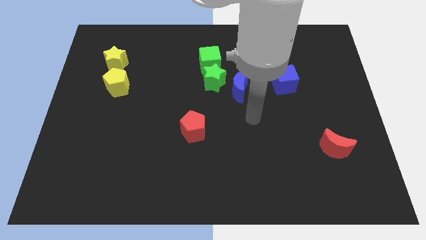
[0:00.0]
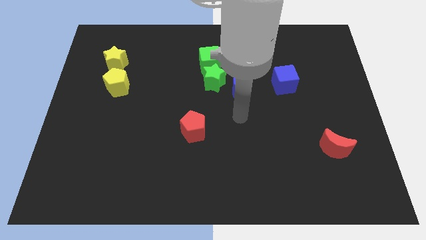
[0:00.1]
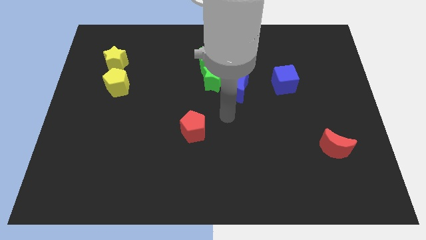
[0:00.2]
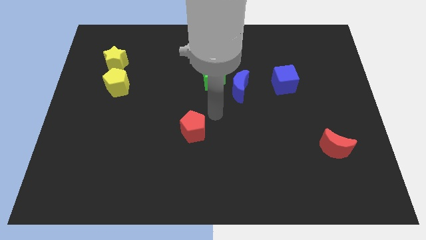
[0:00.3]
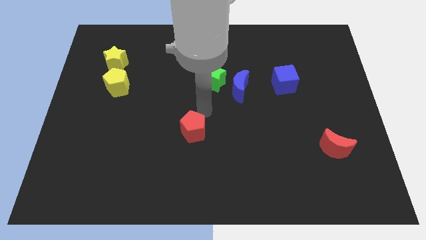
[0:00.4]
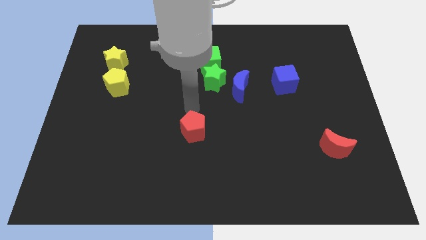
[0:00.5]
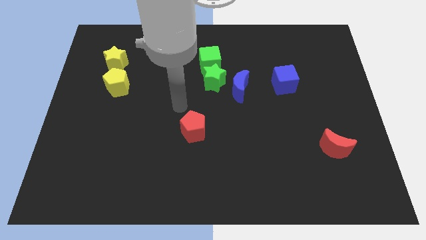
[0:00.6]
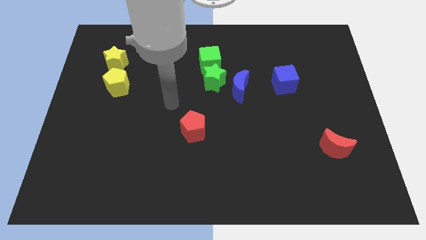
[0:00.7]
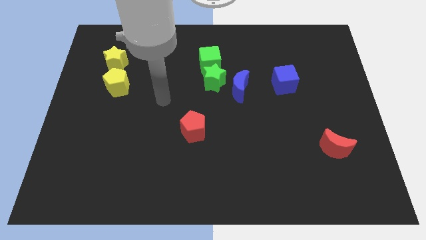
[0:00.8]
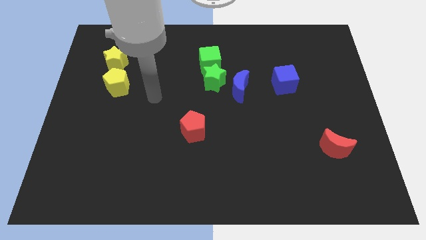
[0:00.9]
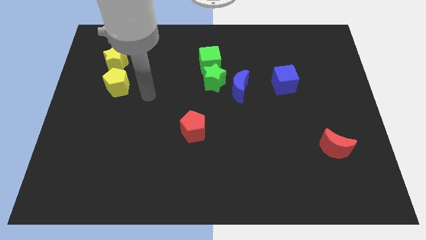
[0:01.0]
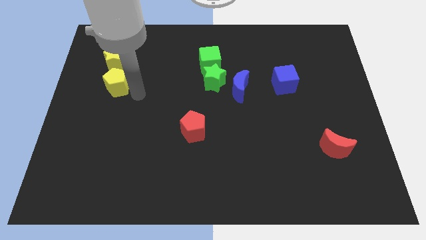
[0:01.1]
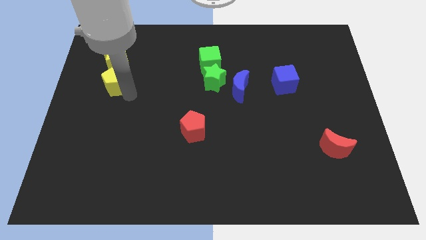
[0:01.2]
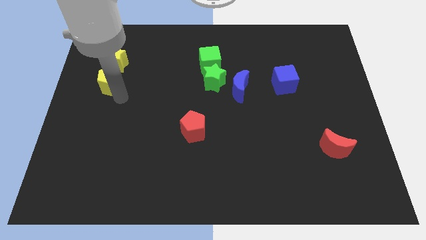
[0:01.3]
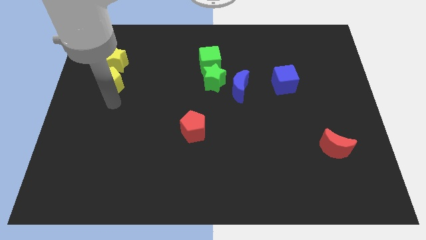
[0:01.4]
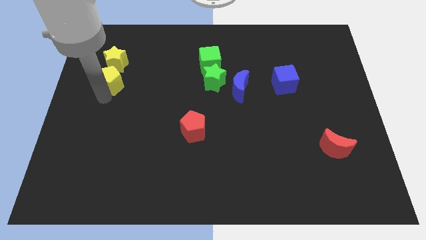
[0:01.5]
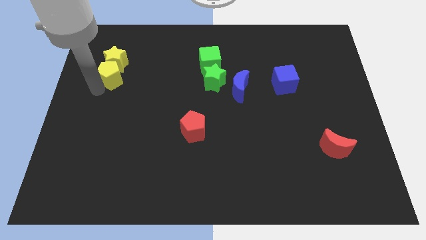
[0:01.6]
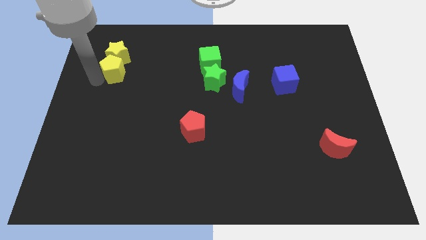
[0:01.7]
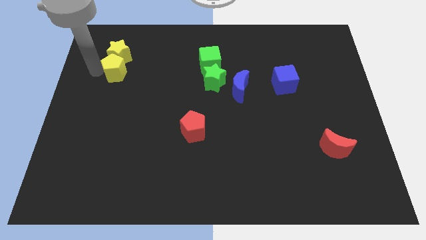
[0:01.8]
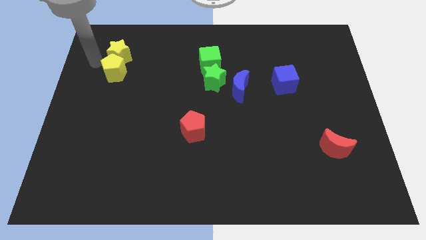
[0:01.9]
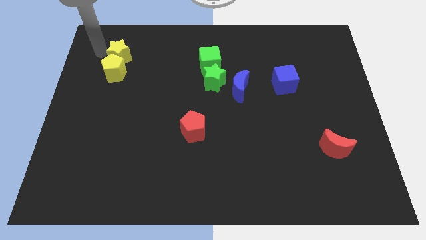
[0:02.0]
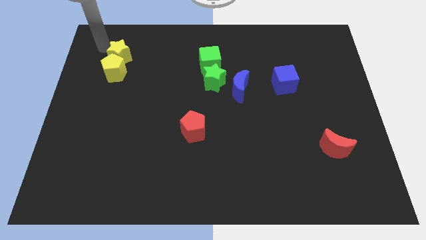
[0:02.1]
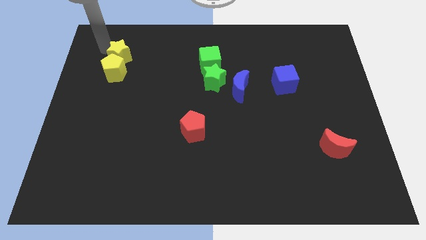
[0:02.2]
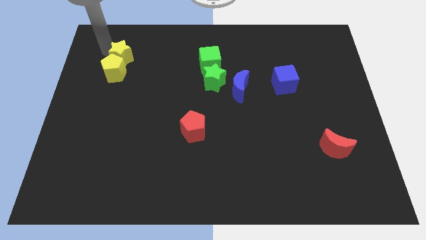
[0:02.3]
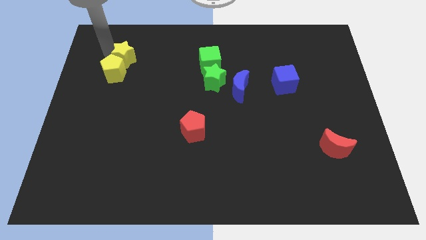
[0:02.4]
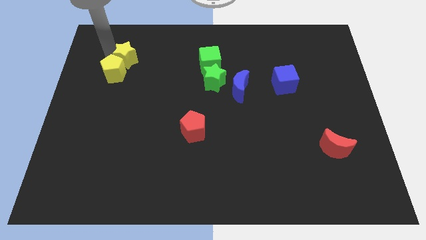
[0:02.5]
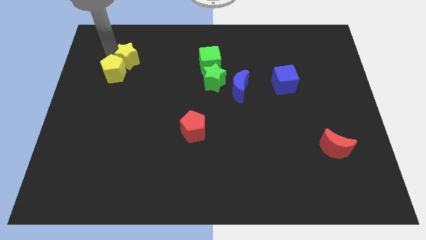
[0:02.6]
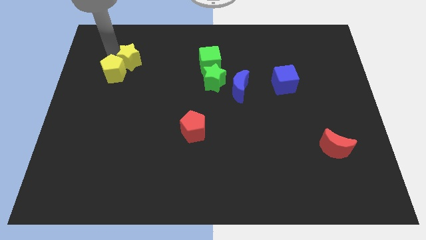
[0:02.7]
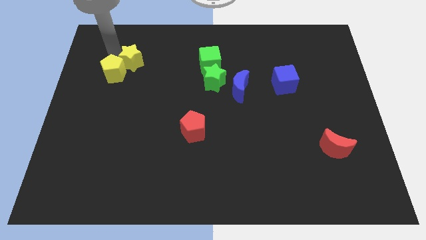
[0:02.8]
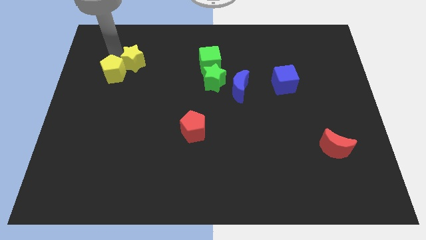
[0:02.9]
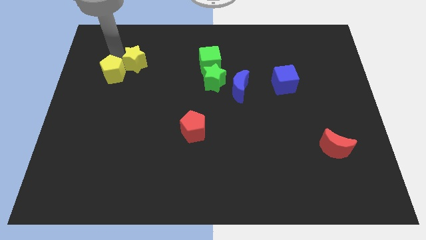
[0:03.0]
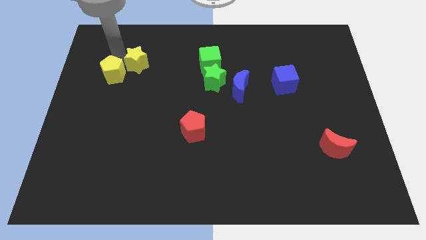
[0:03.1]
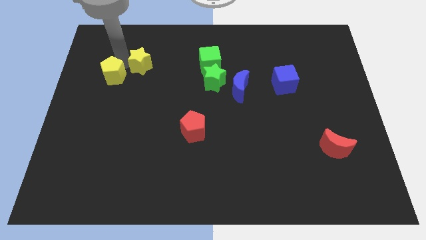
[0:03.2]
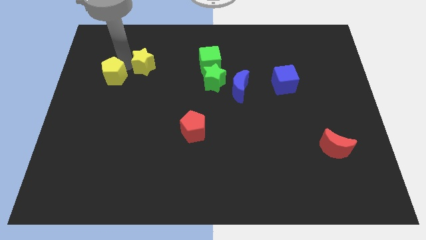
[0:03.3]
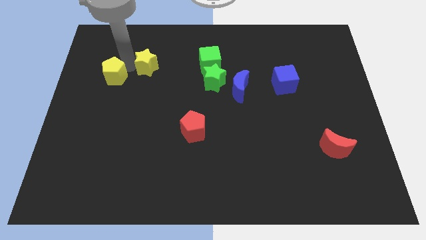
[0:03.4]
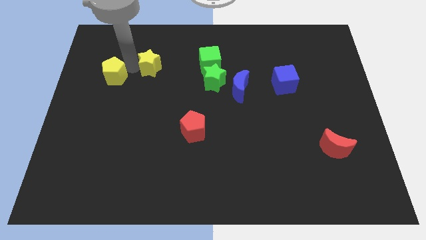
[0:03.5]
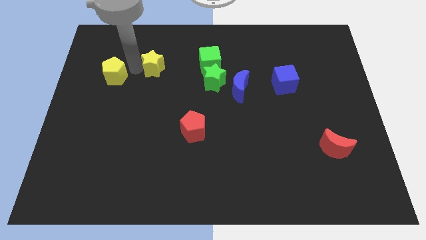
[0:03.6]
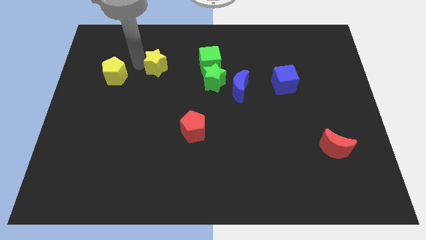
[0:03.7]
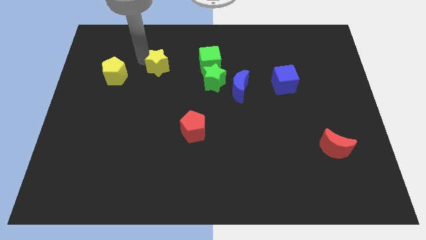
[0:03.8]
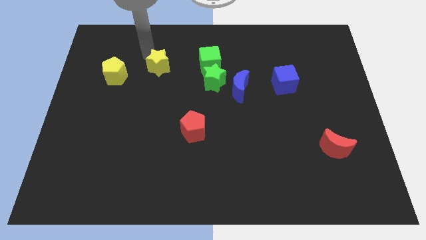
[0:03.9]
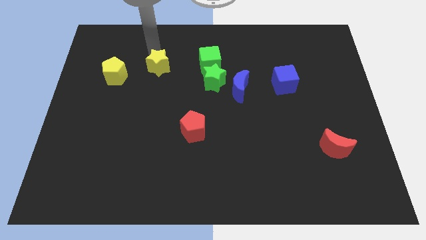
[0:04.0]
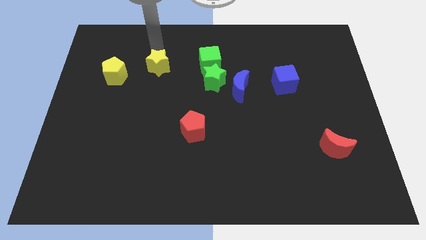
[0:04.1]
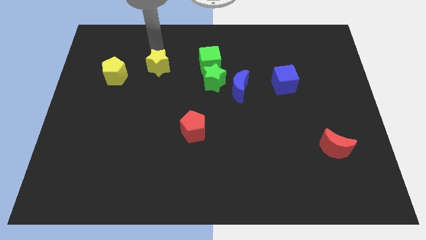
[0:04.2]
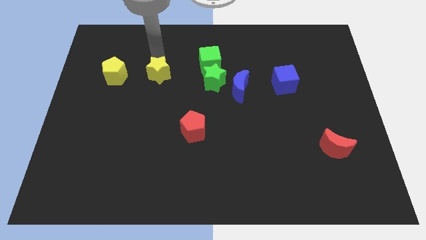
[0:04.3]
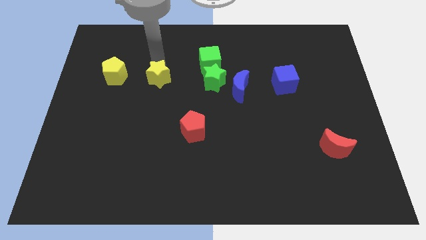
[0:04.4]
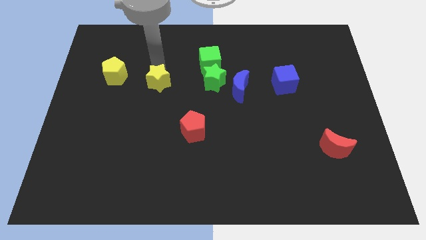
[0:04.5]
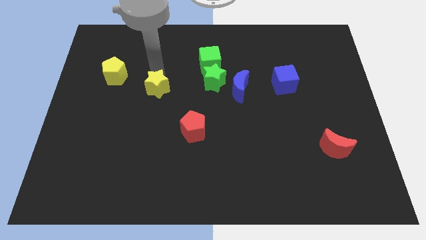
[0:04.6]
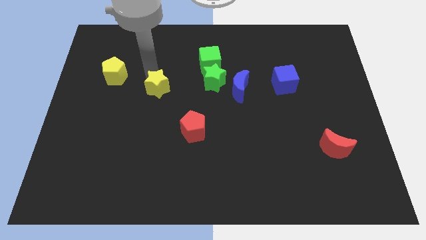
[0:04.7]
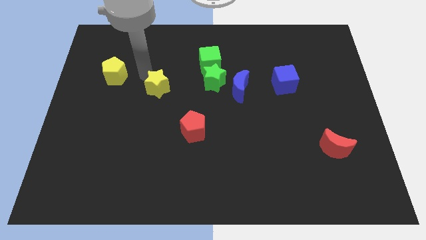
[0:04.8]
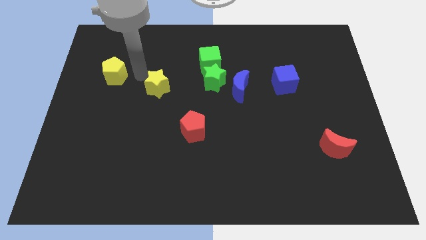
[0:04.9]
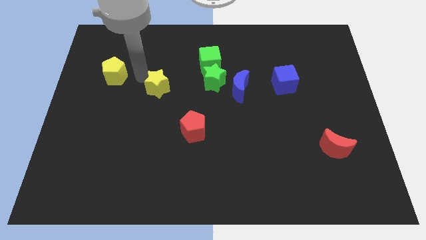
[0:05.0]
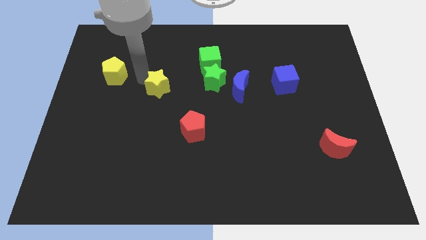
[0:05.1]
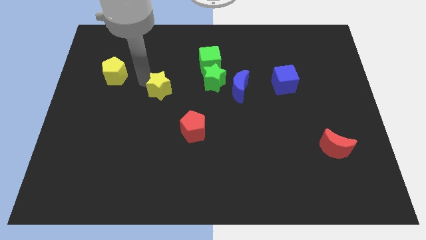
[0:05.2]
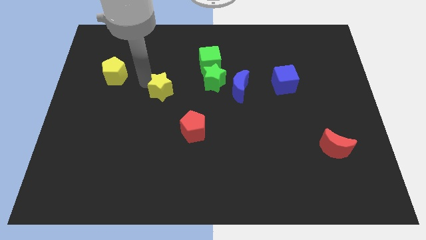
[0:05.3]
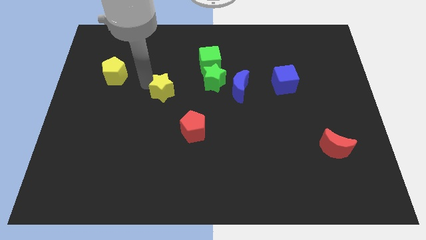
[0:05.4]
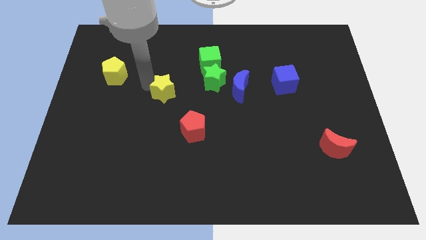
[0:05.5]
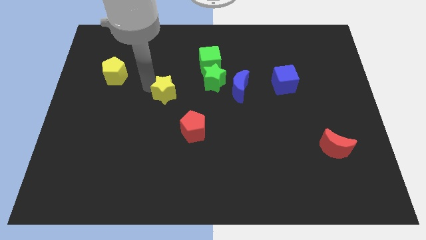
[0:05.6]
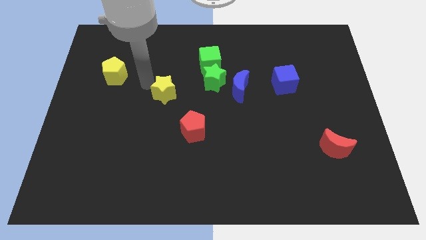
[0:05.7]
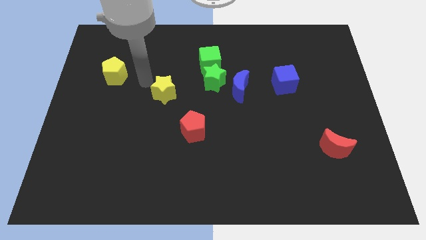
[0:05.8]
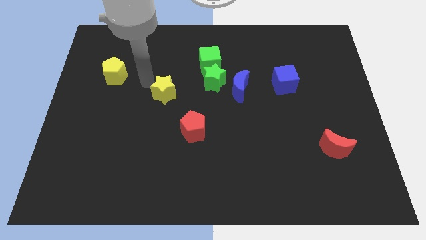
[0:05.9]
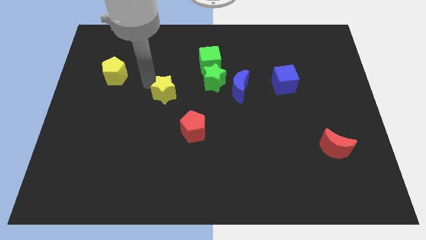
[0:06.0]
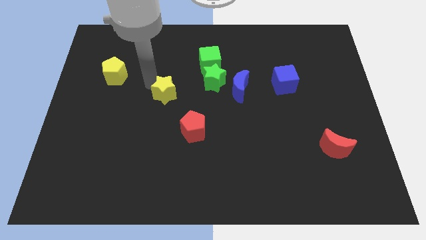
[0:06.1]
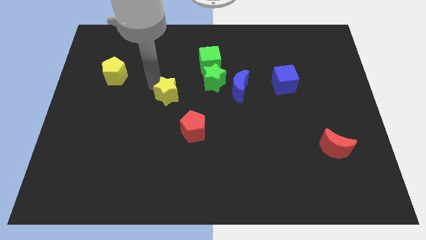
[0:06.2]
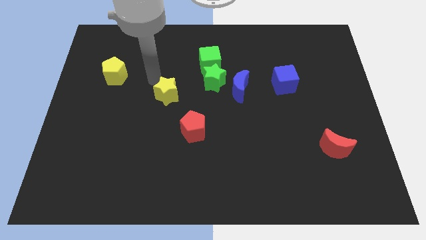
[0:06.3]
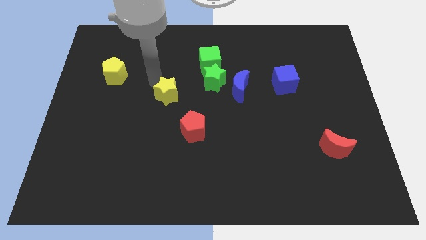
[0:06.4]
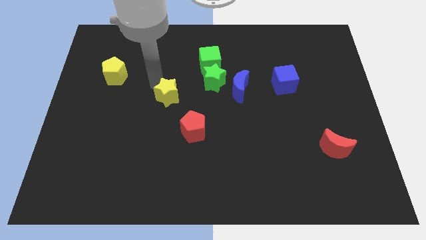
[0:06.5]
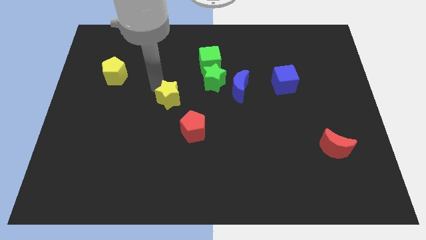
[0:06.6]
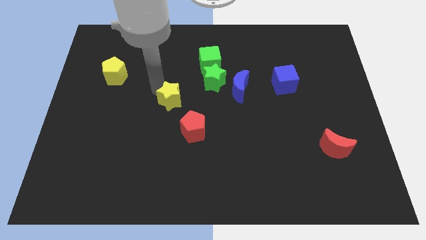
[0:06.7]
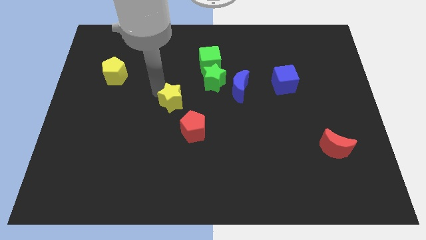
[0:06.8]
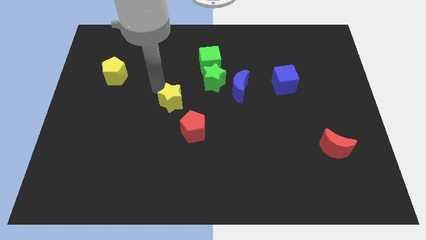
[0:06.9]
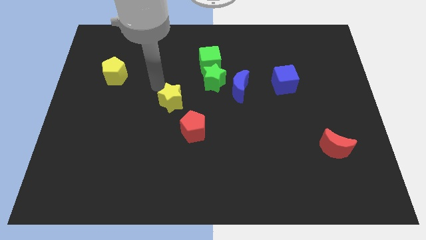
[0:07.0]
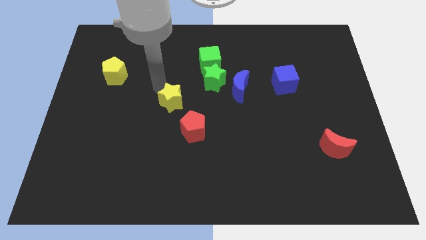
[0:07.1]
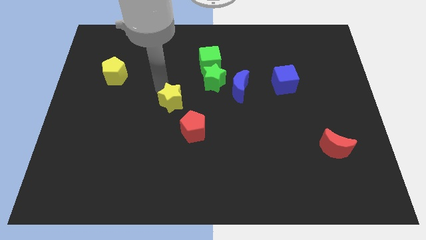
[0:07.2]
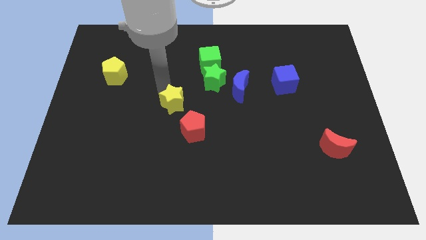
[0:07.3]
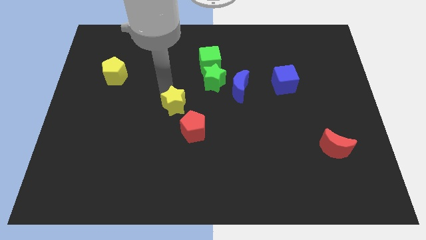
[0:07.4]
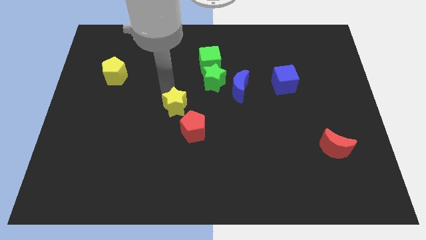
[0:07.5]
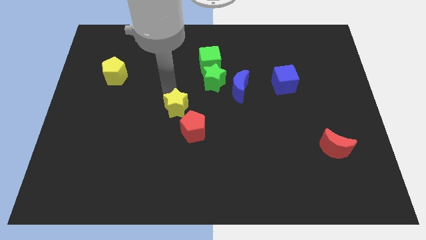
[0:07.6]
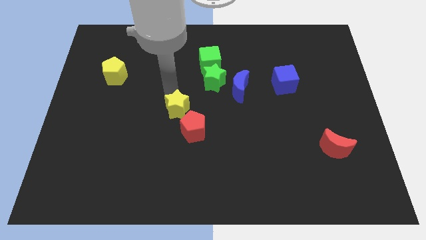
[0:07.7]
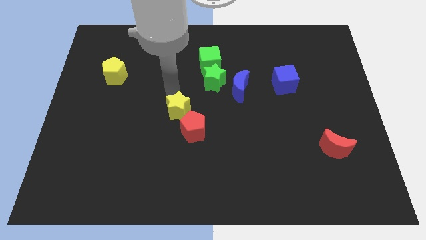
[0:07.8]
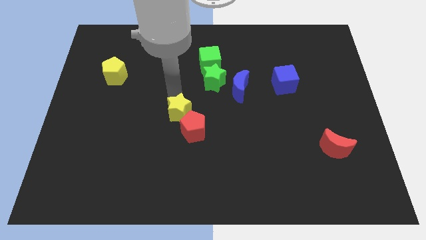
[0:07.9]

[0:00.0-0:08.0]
push the yellow star to the red pentagon

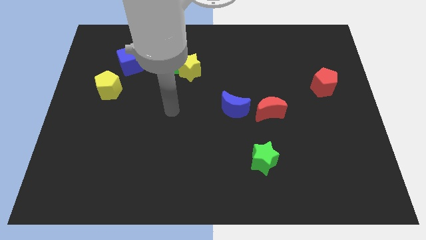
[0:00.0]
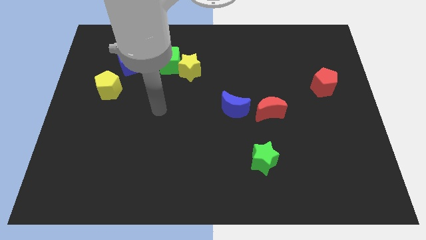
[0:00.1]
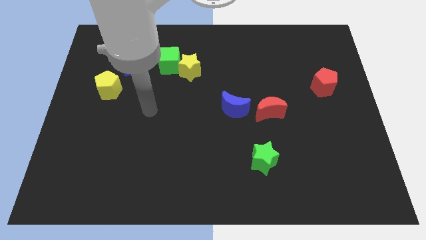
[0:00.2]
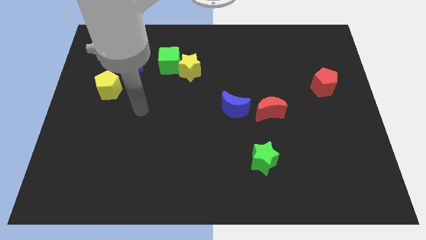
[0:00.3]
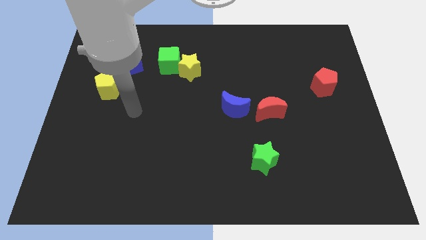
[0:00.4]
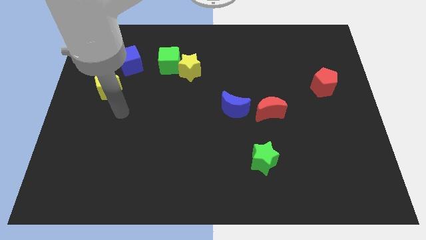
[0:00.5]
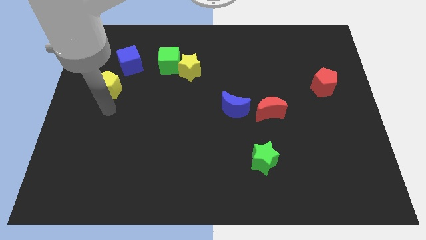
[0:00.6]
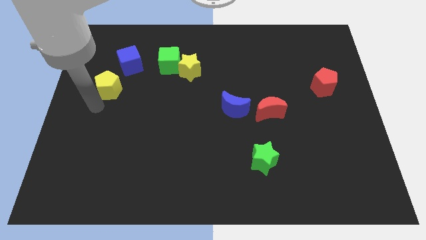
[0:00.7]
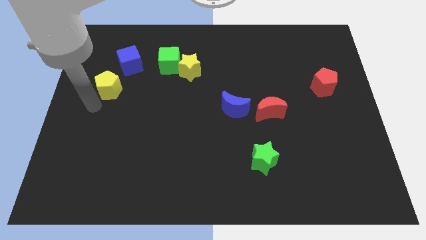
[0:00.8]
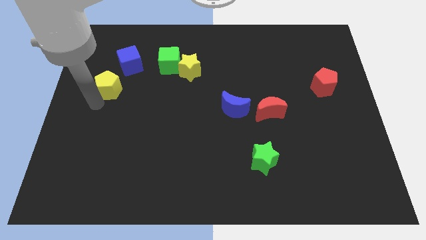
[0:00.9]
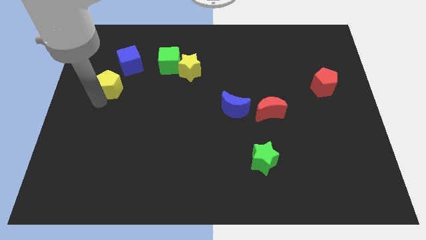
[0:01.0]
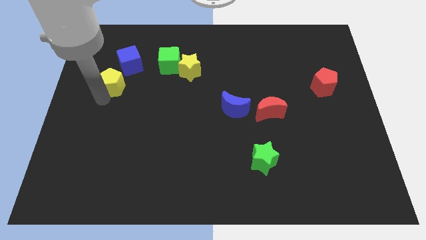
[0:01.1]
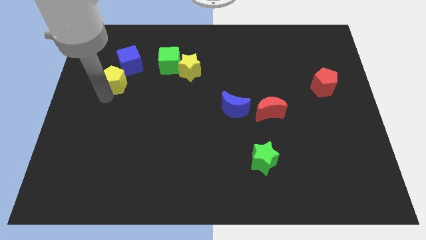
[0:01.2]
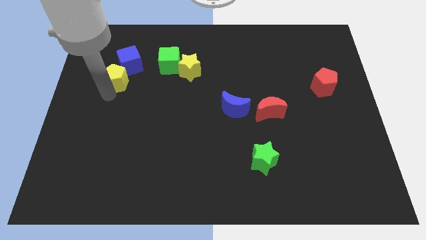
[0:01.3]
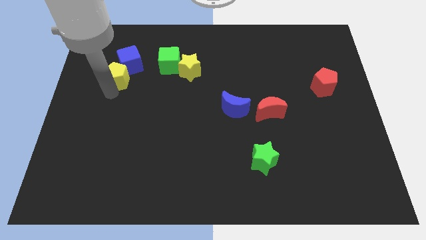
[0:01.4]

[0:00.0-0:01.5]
put the yellow pentagon close to the blue cube
